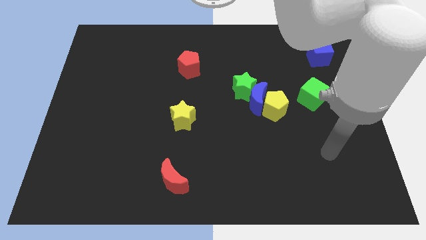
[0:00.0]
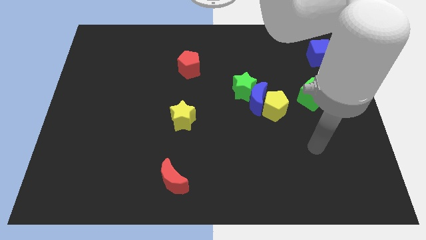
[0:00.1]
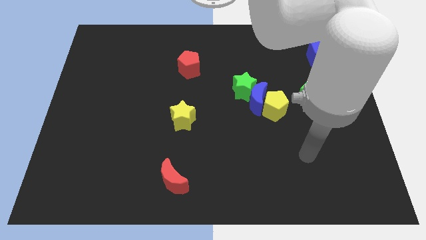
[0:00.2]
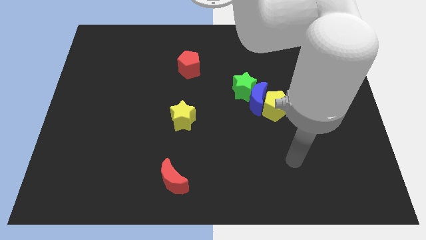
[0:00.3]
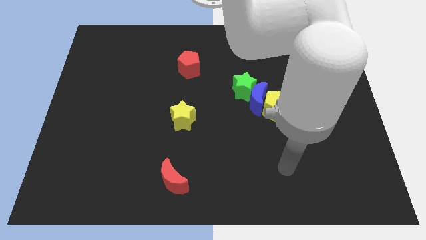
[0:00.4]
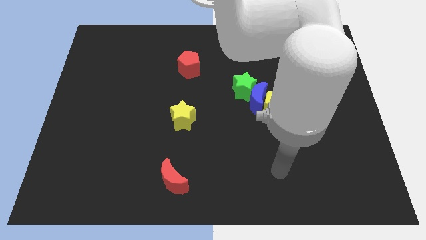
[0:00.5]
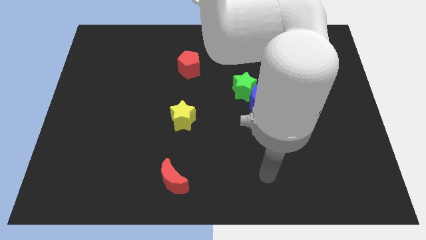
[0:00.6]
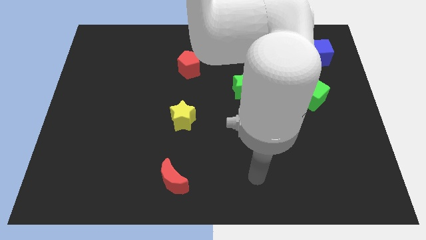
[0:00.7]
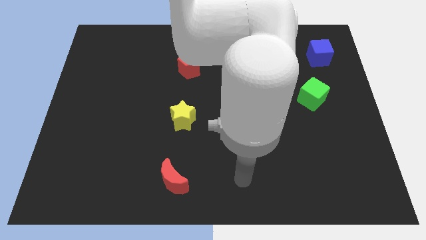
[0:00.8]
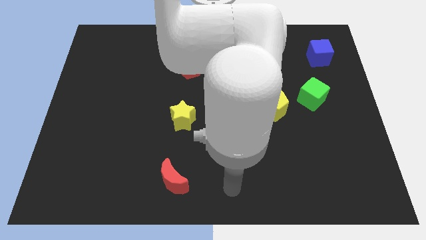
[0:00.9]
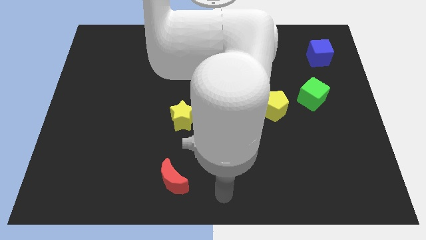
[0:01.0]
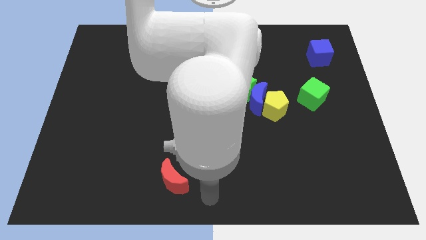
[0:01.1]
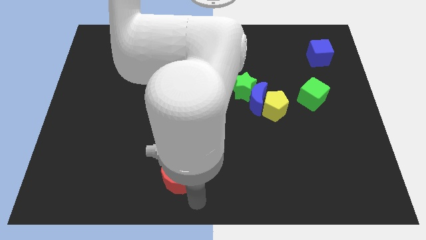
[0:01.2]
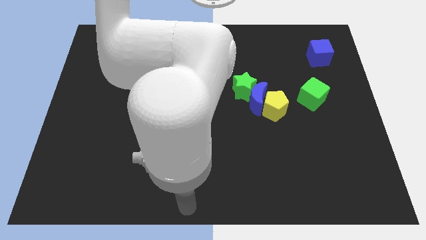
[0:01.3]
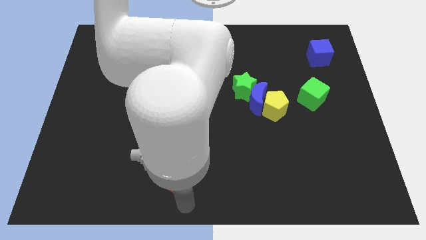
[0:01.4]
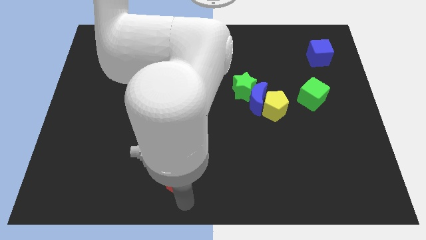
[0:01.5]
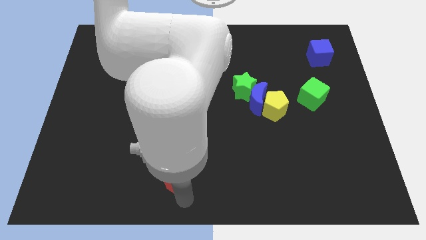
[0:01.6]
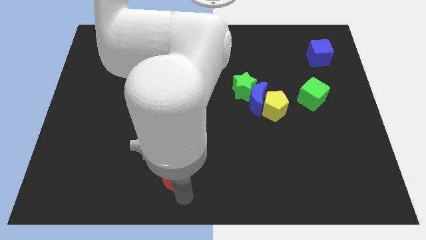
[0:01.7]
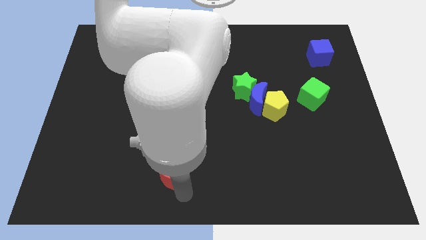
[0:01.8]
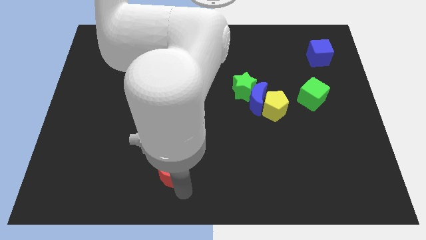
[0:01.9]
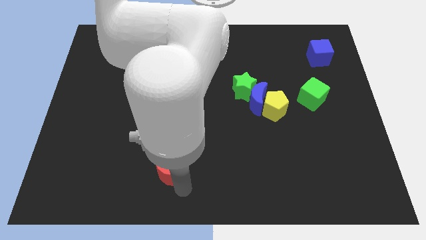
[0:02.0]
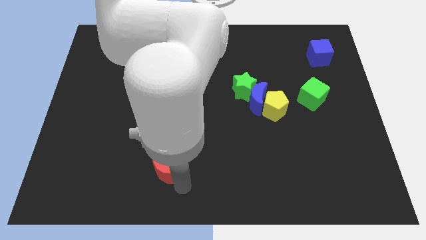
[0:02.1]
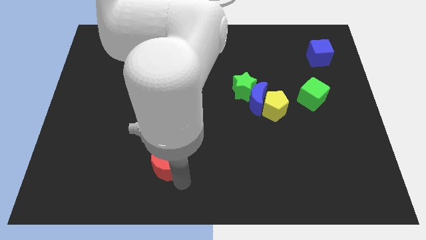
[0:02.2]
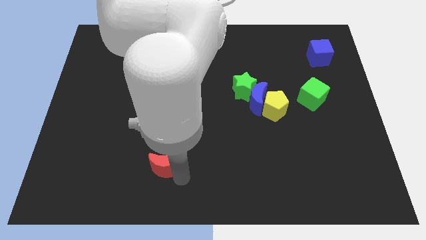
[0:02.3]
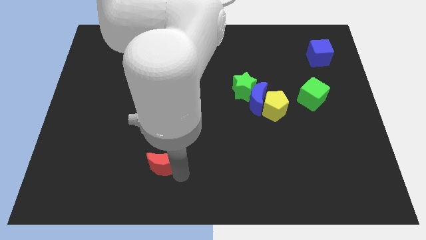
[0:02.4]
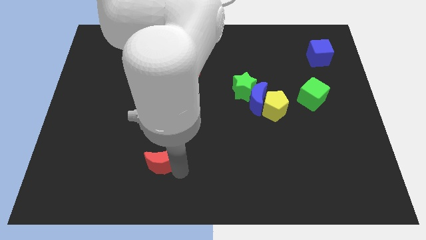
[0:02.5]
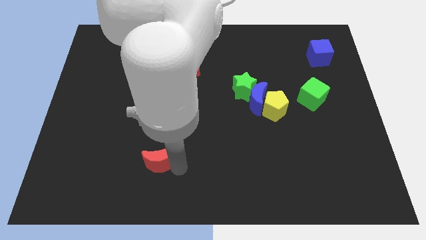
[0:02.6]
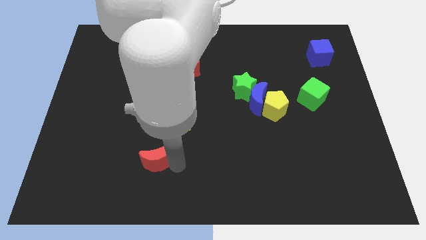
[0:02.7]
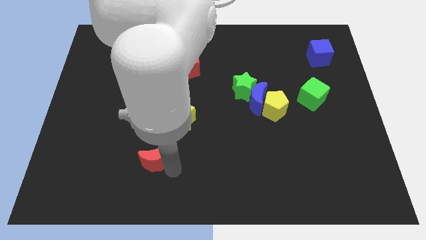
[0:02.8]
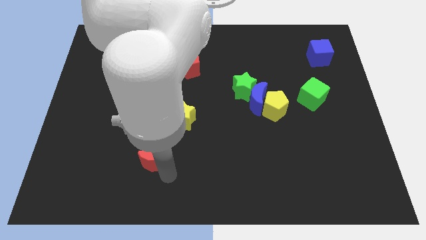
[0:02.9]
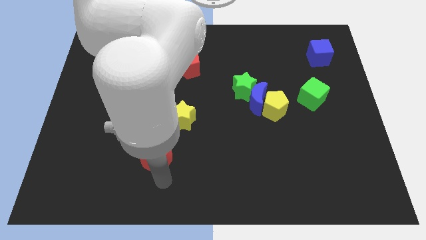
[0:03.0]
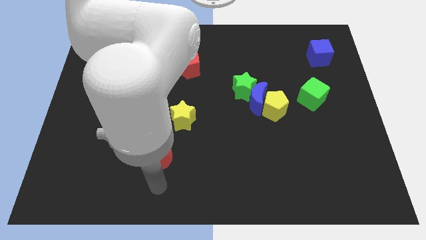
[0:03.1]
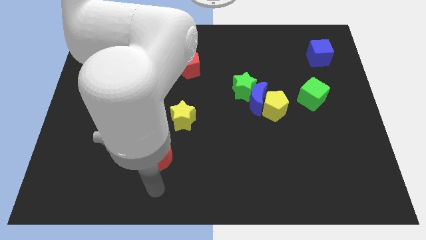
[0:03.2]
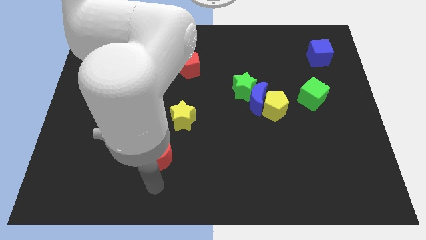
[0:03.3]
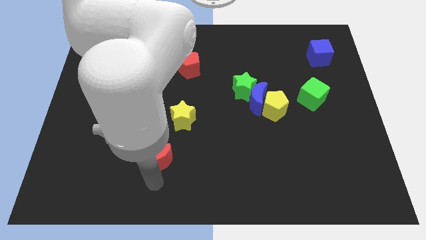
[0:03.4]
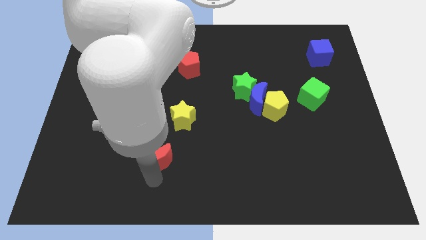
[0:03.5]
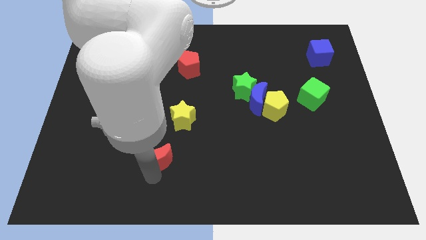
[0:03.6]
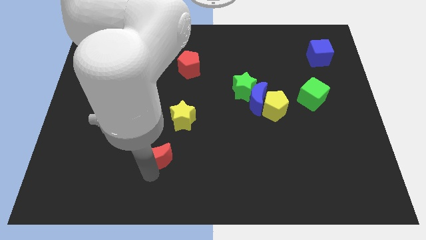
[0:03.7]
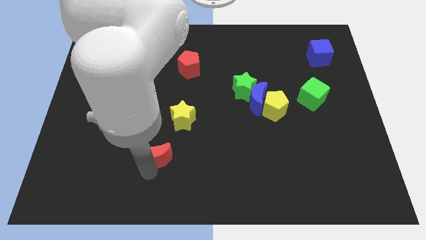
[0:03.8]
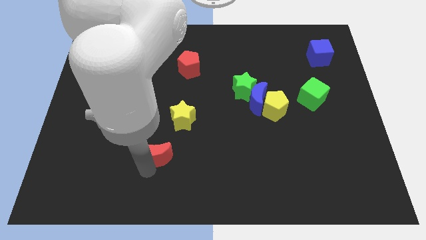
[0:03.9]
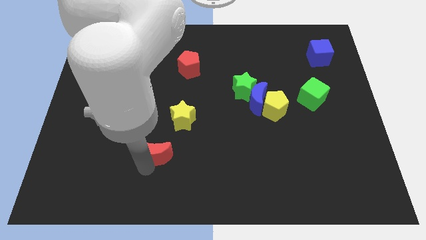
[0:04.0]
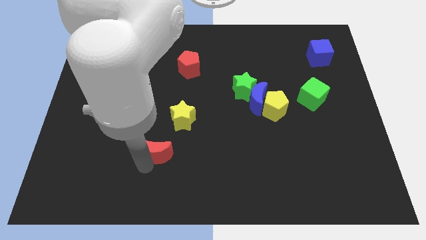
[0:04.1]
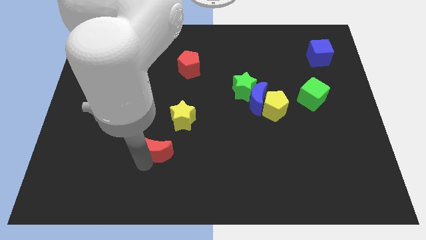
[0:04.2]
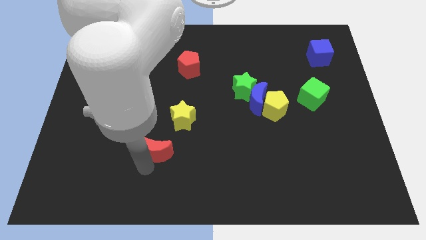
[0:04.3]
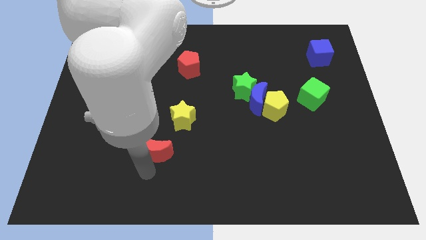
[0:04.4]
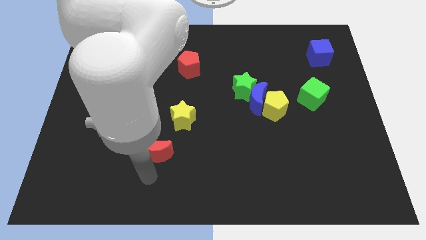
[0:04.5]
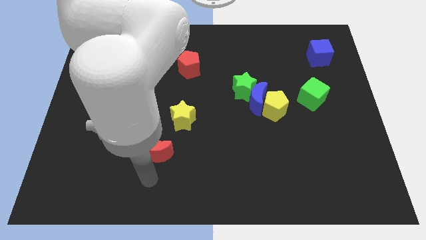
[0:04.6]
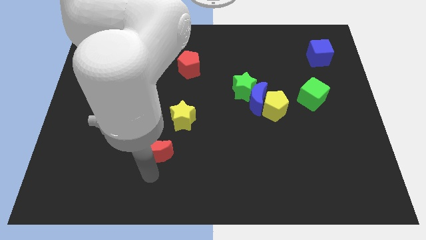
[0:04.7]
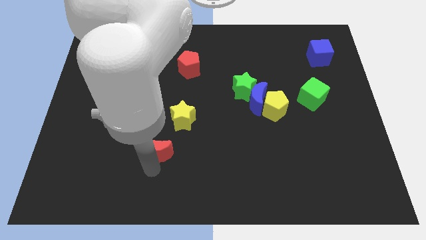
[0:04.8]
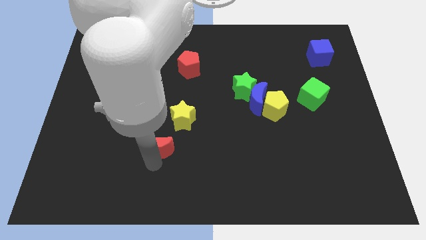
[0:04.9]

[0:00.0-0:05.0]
move the red moon upwards slightly

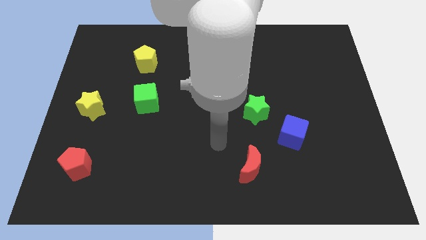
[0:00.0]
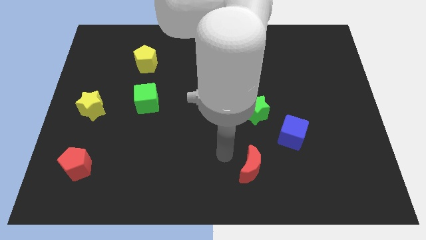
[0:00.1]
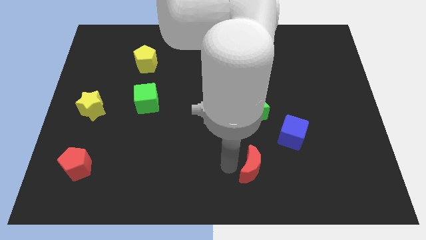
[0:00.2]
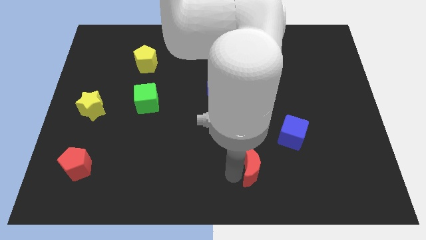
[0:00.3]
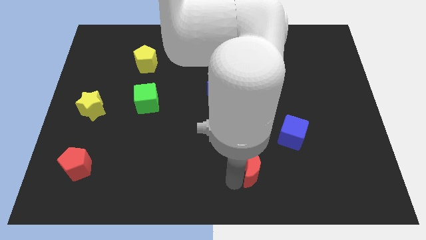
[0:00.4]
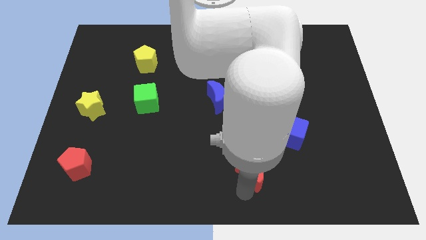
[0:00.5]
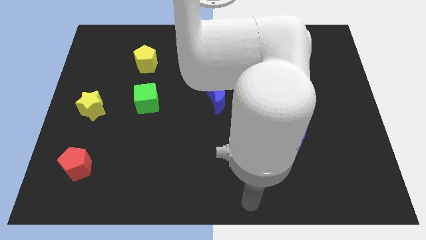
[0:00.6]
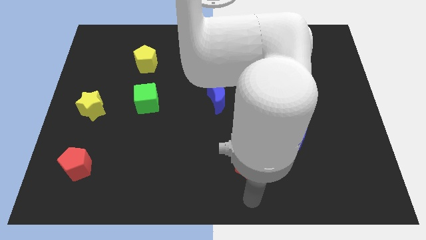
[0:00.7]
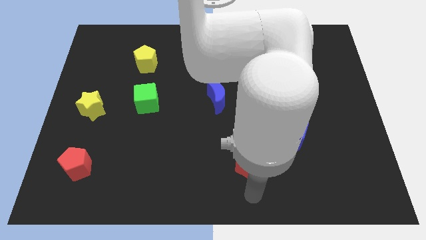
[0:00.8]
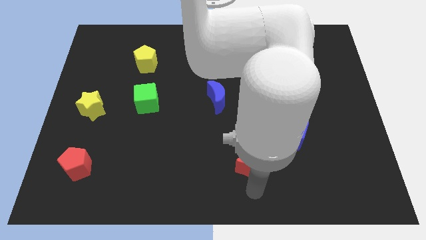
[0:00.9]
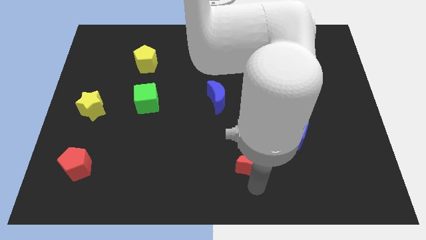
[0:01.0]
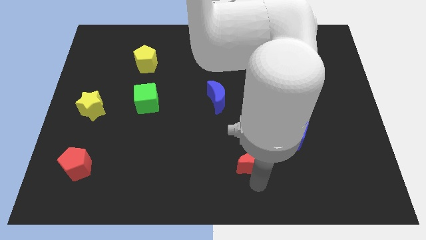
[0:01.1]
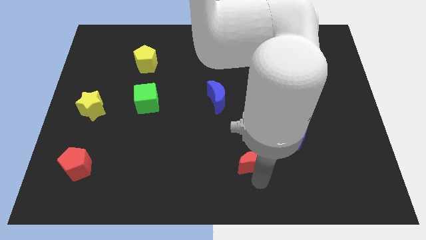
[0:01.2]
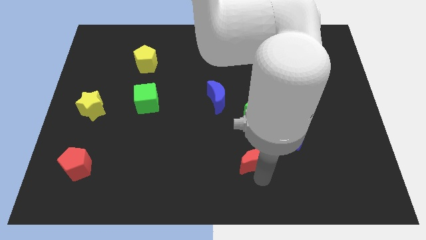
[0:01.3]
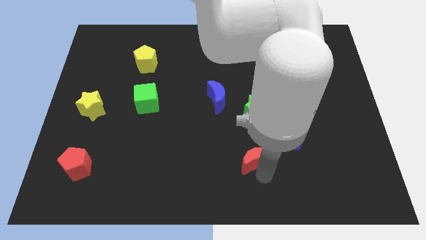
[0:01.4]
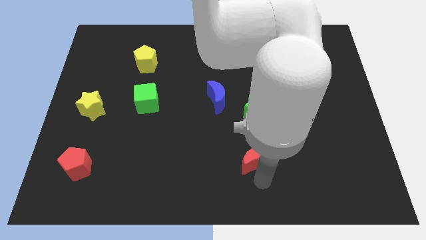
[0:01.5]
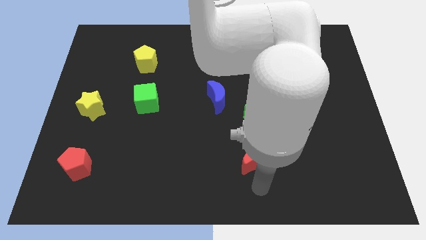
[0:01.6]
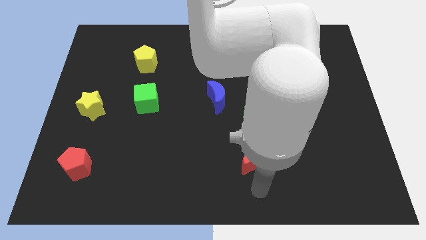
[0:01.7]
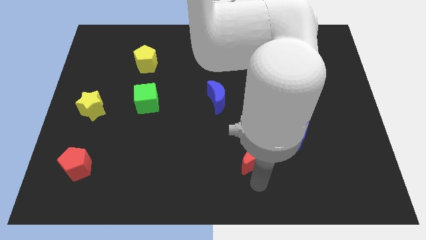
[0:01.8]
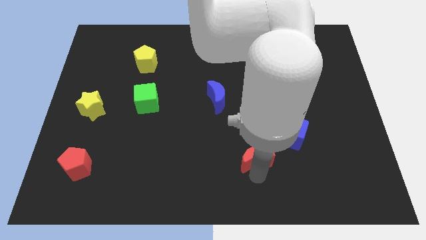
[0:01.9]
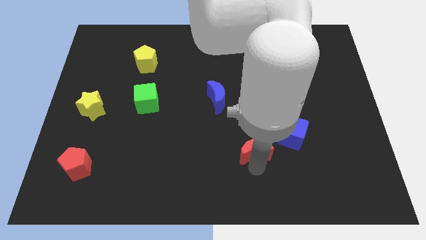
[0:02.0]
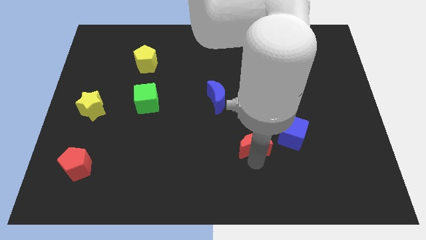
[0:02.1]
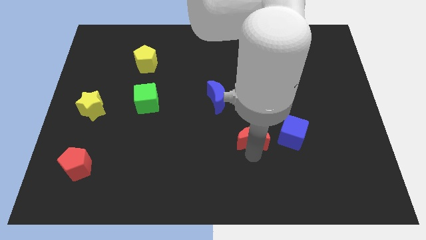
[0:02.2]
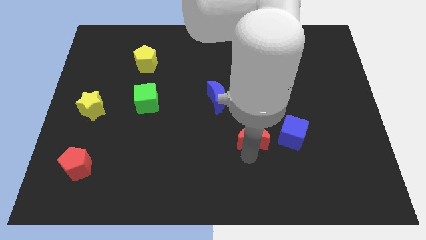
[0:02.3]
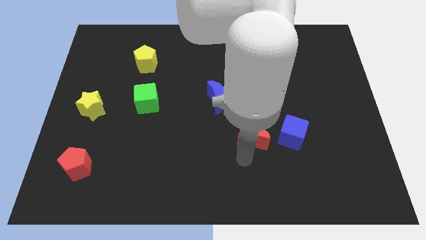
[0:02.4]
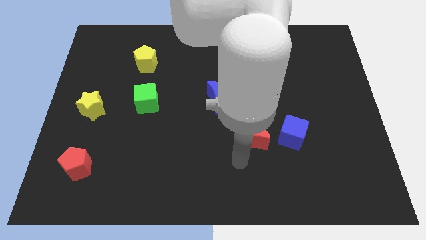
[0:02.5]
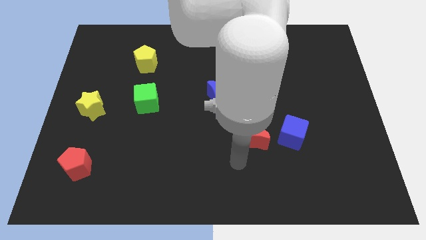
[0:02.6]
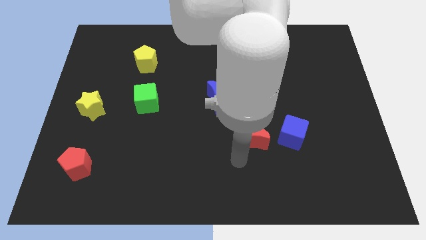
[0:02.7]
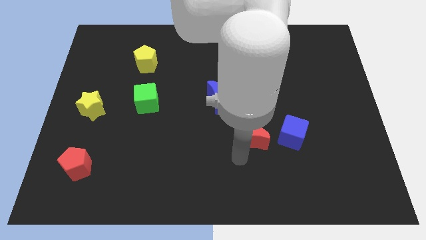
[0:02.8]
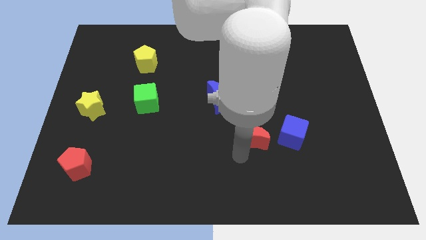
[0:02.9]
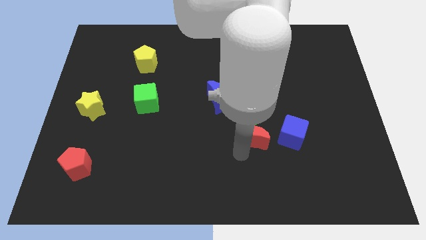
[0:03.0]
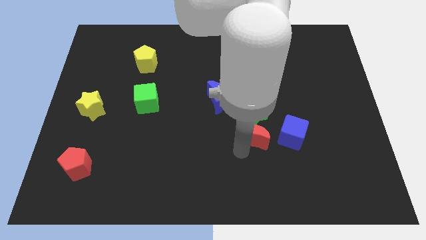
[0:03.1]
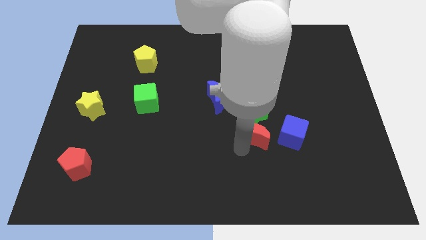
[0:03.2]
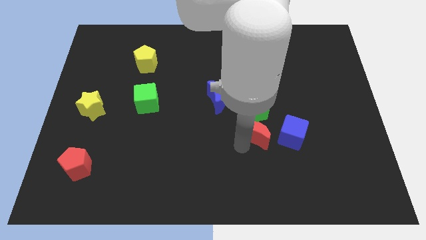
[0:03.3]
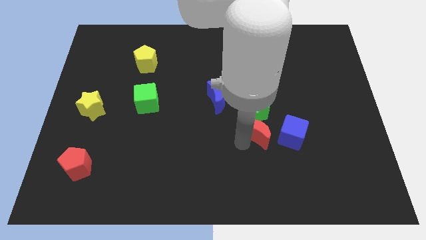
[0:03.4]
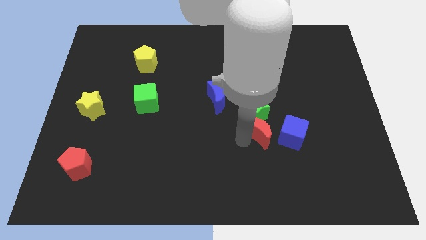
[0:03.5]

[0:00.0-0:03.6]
slightly slide the red moon diagonally up and right

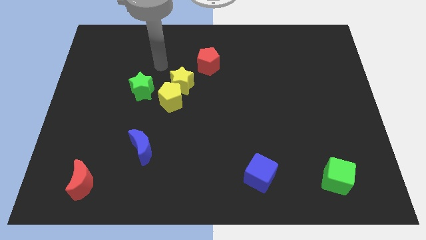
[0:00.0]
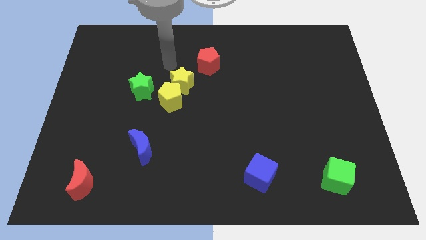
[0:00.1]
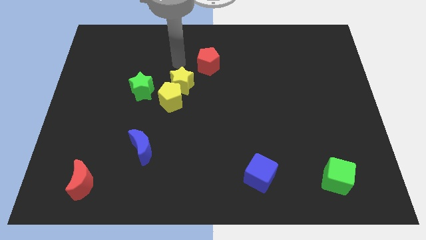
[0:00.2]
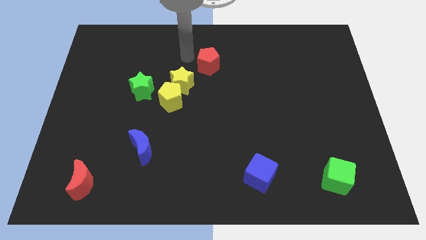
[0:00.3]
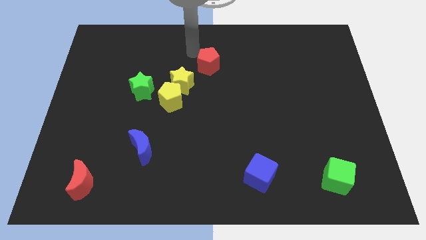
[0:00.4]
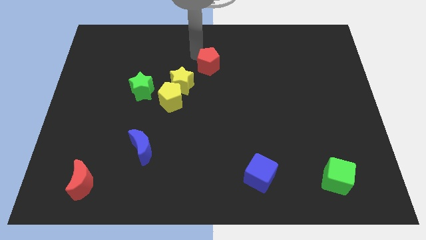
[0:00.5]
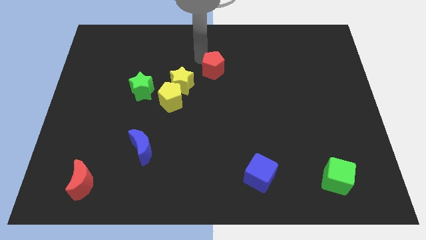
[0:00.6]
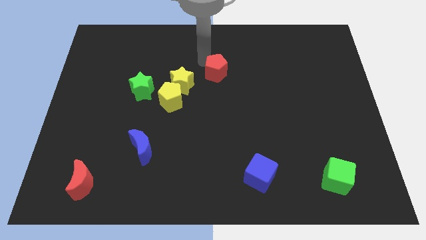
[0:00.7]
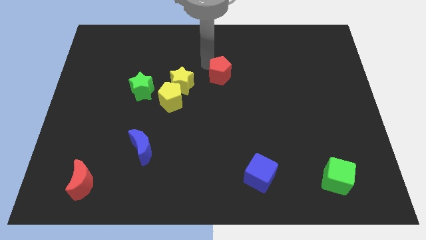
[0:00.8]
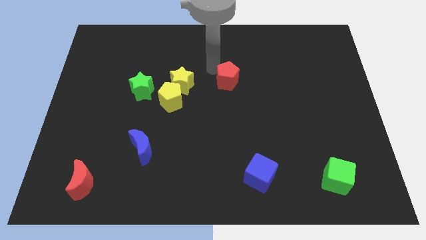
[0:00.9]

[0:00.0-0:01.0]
push the red pentagon diagonally down and to the right a little bit
